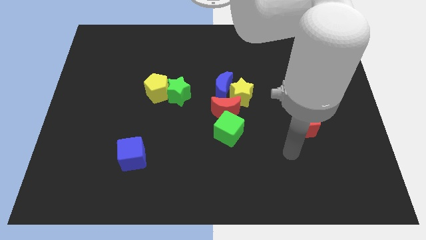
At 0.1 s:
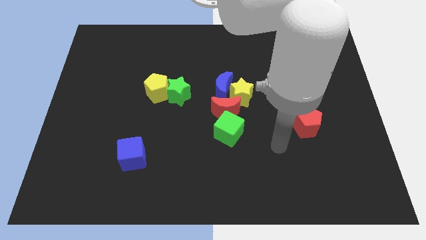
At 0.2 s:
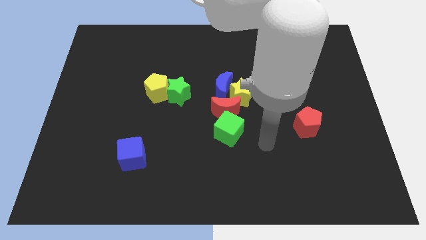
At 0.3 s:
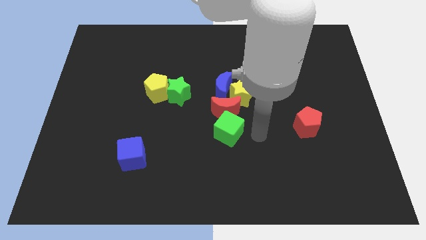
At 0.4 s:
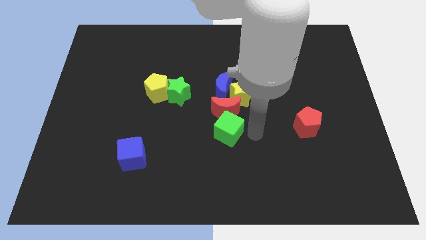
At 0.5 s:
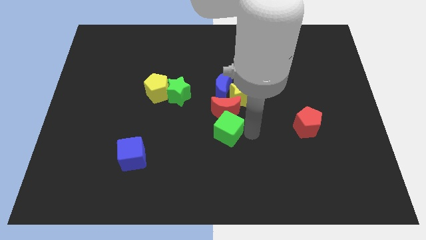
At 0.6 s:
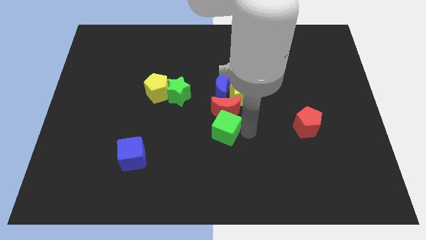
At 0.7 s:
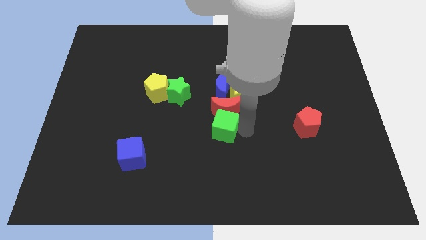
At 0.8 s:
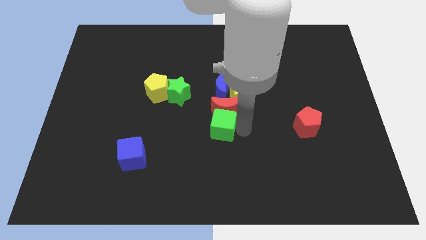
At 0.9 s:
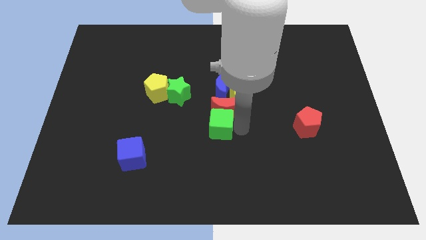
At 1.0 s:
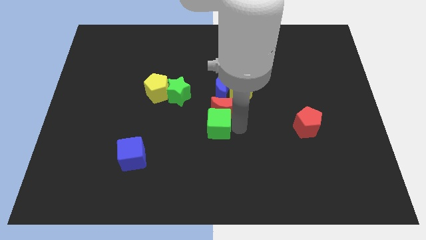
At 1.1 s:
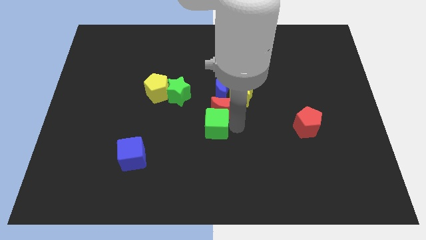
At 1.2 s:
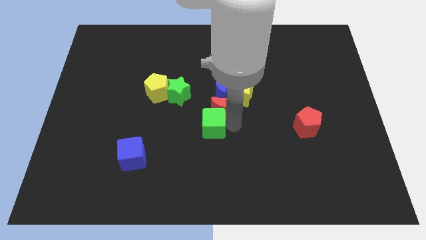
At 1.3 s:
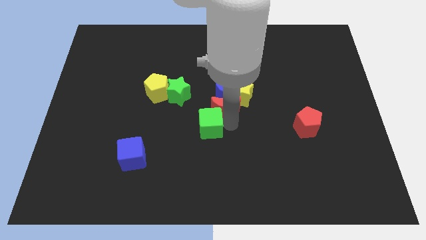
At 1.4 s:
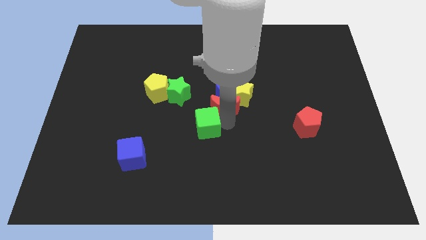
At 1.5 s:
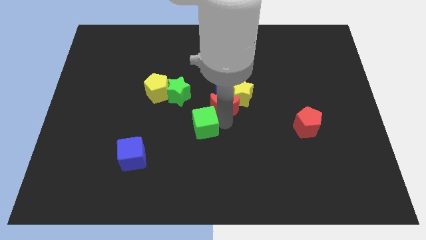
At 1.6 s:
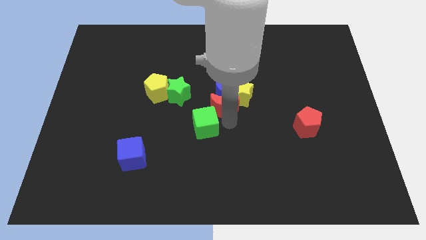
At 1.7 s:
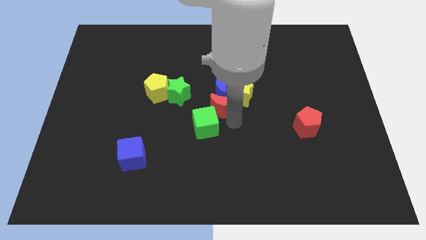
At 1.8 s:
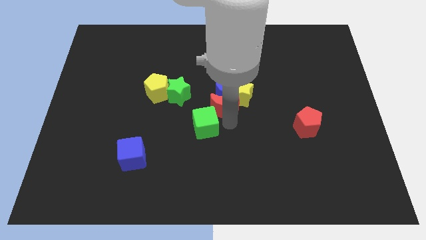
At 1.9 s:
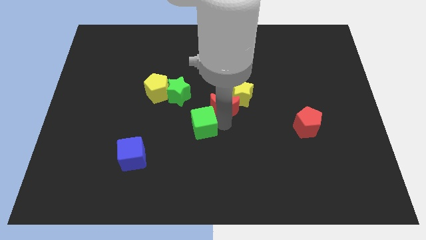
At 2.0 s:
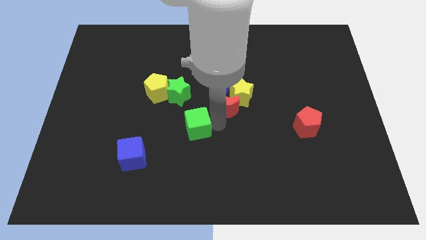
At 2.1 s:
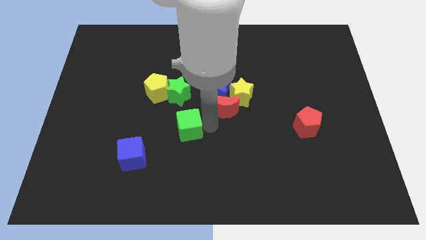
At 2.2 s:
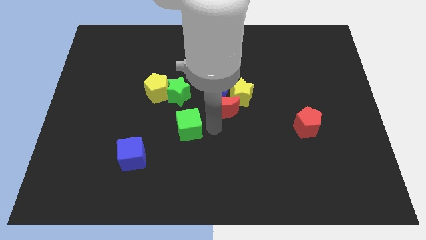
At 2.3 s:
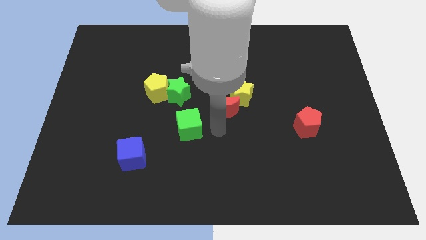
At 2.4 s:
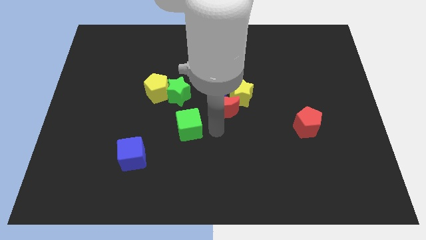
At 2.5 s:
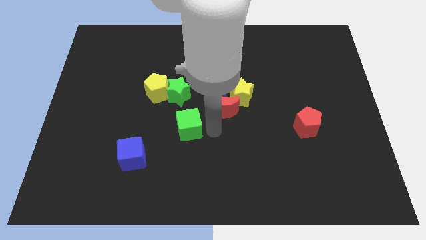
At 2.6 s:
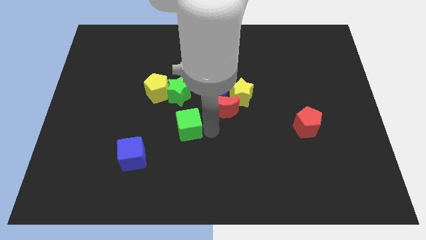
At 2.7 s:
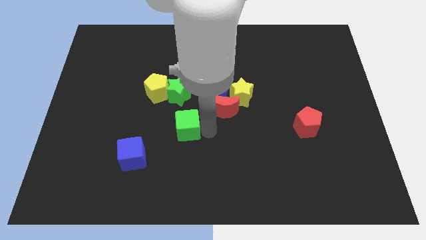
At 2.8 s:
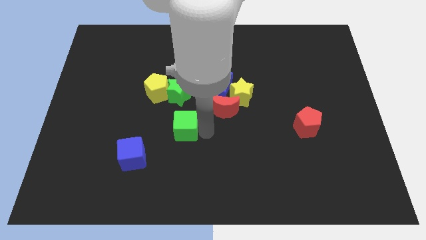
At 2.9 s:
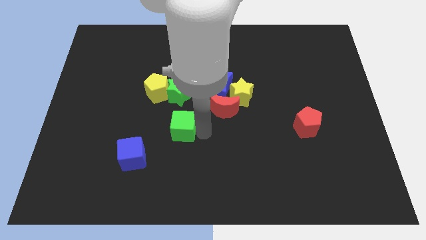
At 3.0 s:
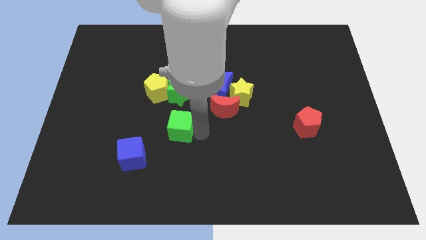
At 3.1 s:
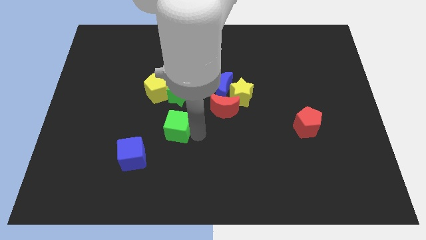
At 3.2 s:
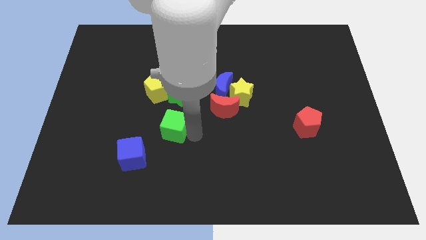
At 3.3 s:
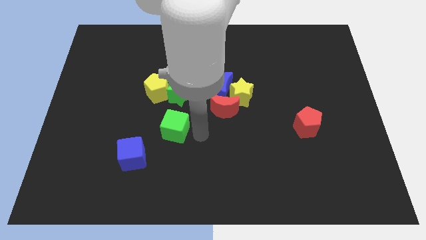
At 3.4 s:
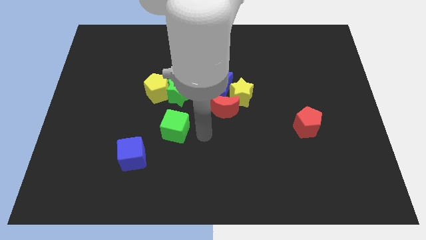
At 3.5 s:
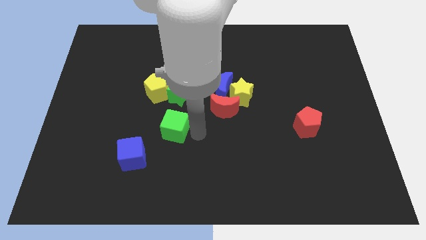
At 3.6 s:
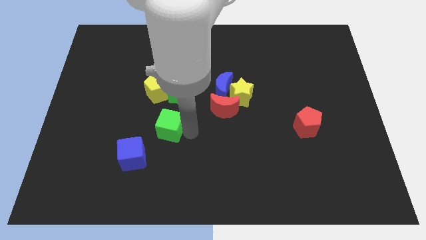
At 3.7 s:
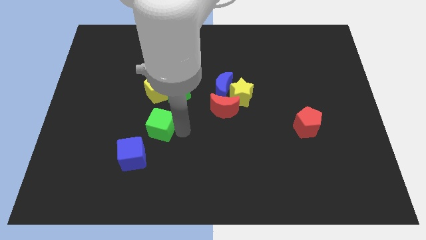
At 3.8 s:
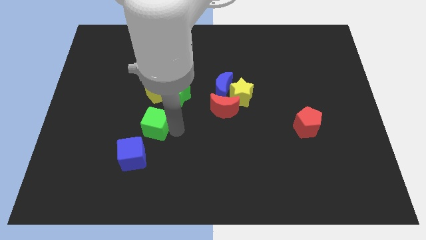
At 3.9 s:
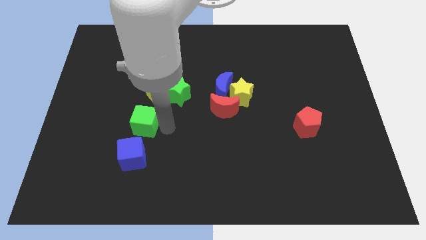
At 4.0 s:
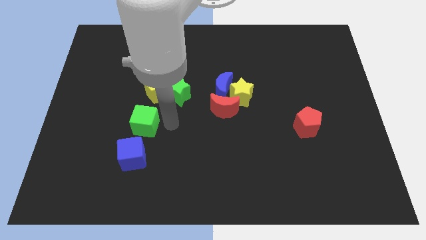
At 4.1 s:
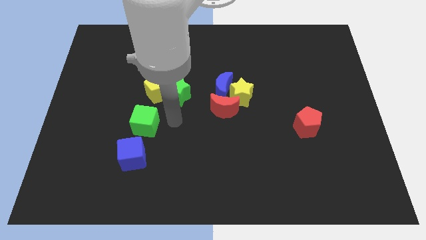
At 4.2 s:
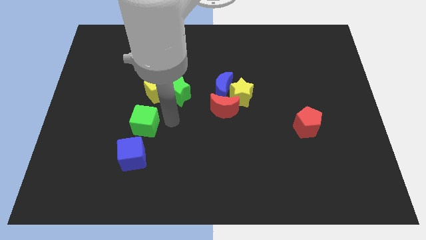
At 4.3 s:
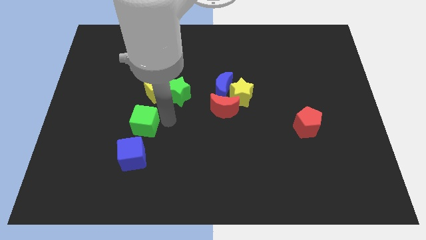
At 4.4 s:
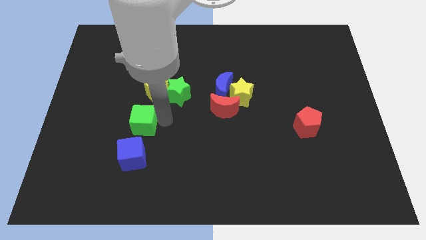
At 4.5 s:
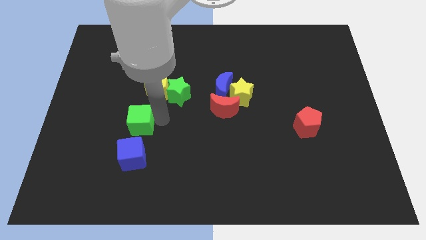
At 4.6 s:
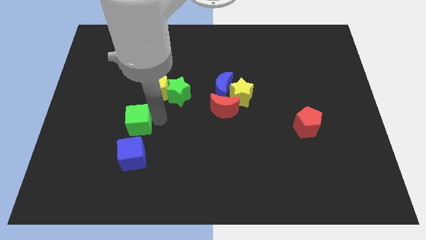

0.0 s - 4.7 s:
slide the green cube to the left

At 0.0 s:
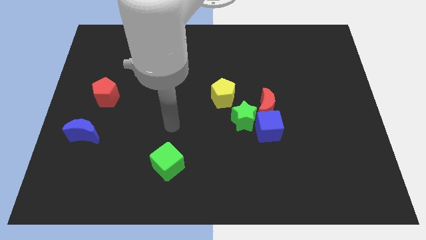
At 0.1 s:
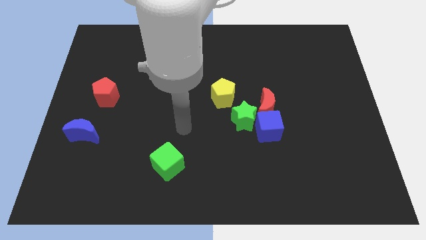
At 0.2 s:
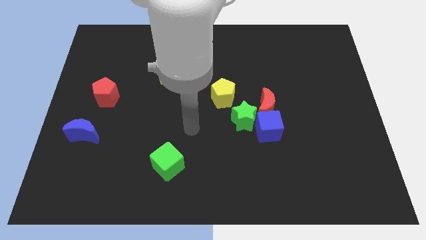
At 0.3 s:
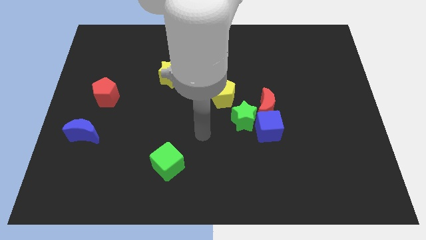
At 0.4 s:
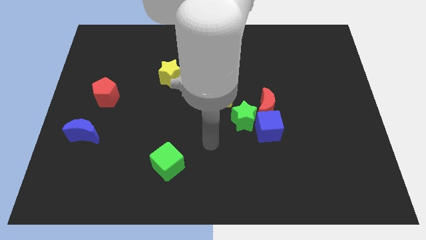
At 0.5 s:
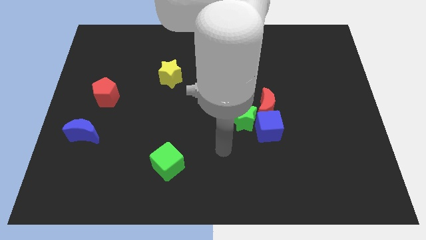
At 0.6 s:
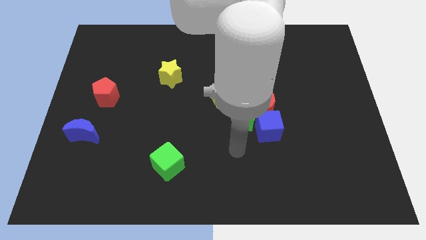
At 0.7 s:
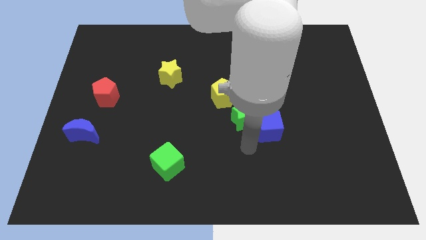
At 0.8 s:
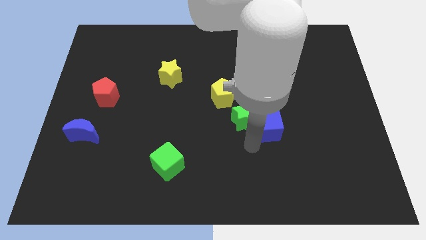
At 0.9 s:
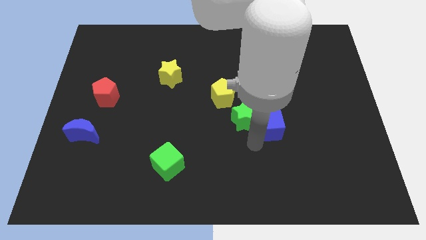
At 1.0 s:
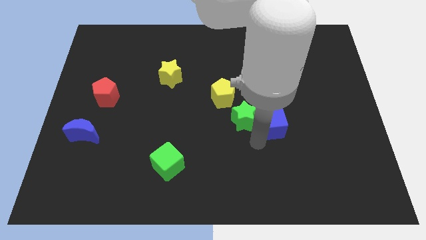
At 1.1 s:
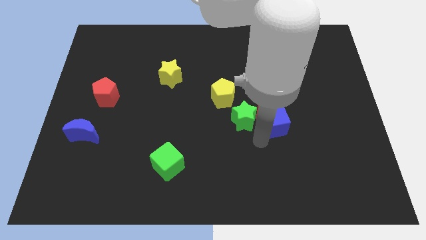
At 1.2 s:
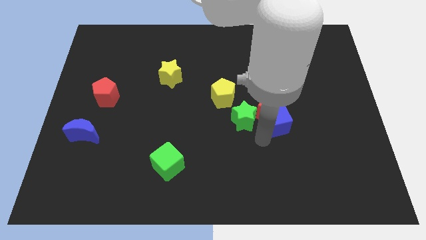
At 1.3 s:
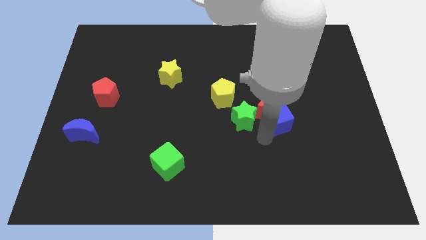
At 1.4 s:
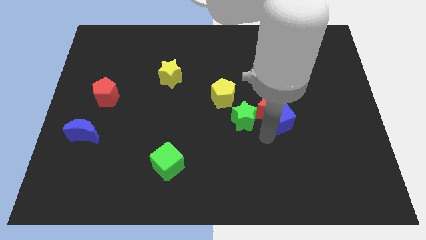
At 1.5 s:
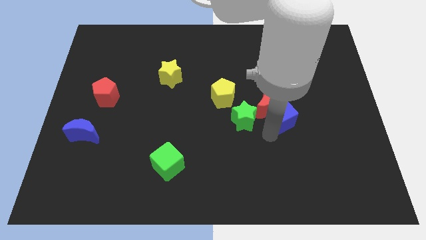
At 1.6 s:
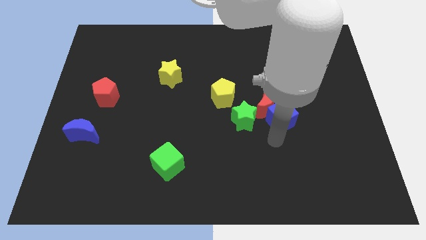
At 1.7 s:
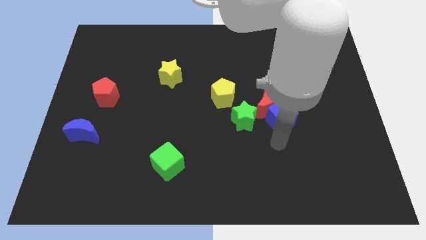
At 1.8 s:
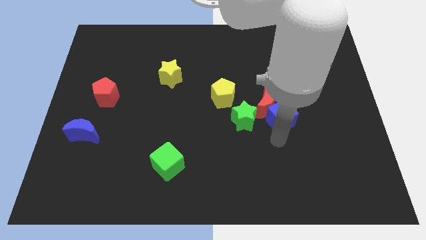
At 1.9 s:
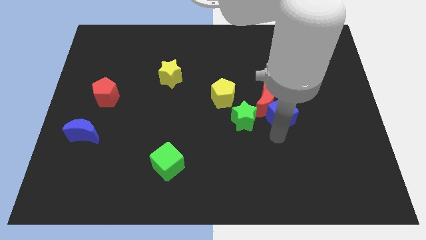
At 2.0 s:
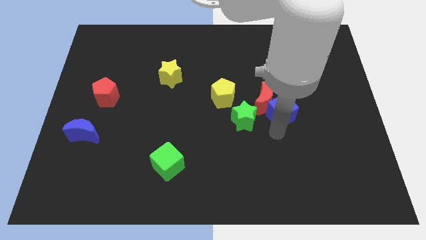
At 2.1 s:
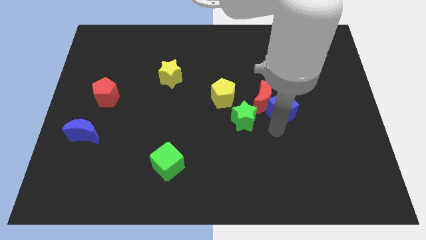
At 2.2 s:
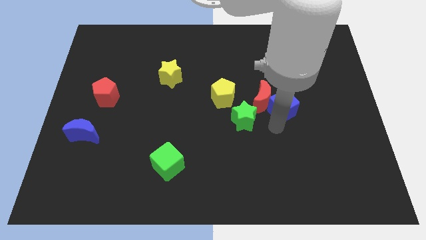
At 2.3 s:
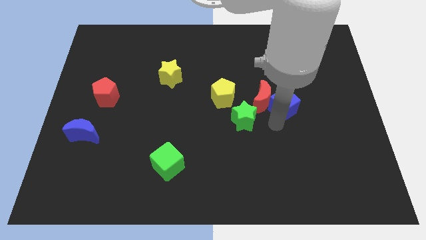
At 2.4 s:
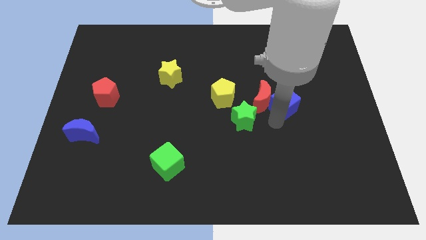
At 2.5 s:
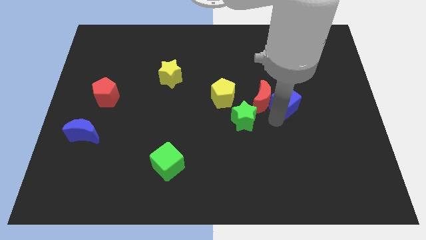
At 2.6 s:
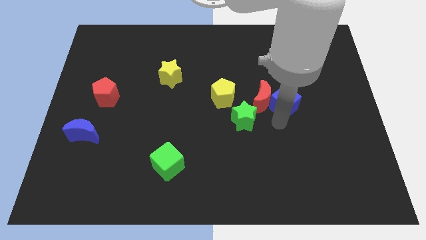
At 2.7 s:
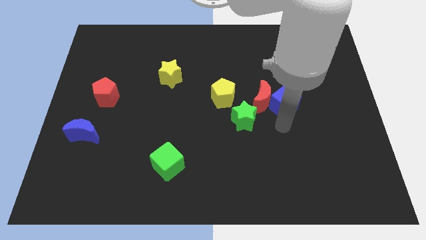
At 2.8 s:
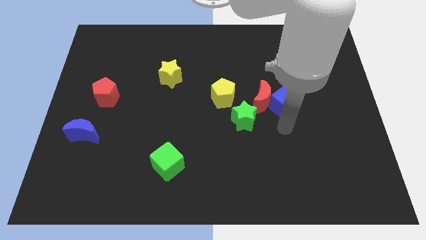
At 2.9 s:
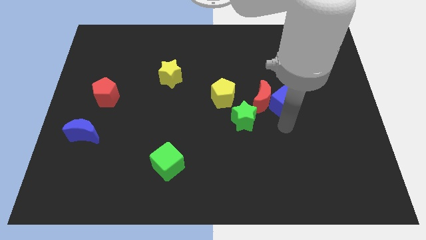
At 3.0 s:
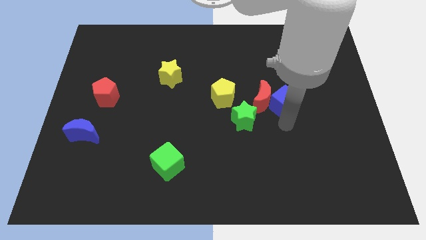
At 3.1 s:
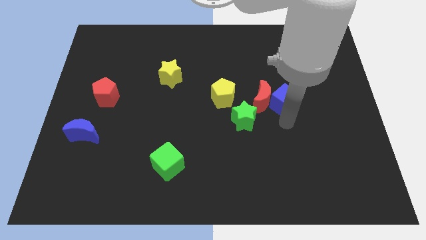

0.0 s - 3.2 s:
slide the blue cube slightly up

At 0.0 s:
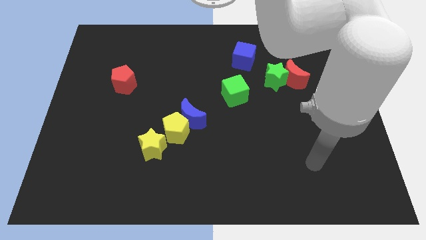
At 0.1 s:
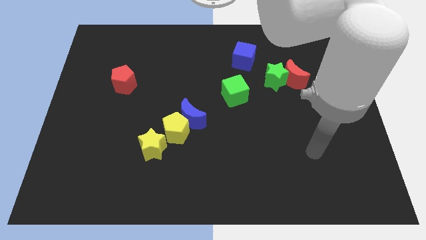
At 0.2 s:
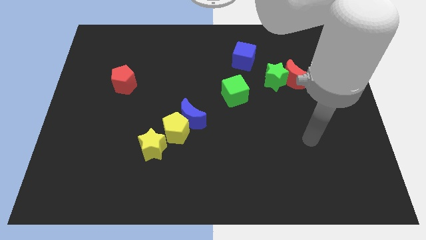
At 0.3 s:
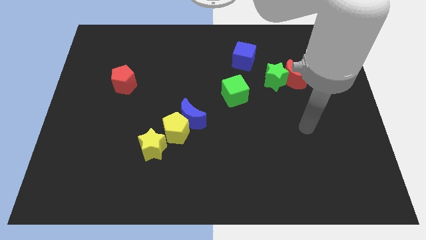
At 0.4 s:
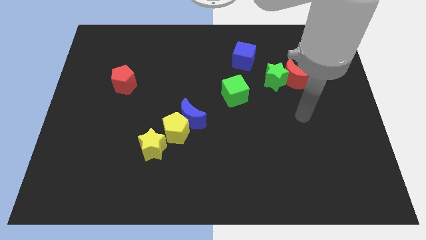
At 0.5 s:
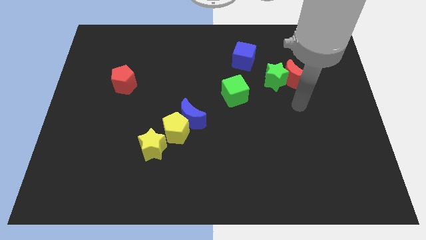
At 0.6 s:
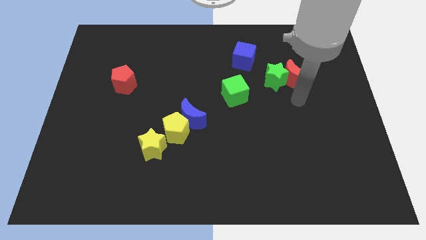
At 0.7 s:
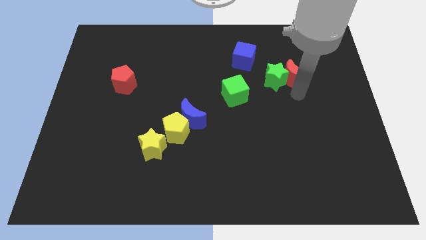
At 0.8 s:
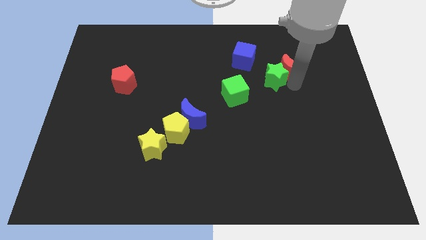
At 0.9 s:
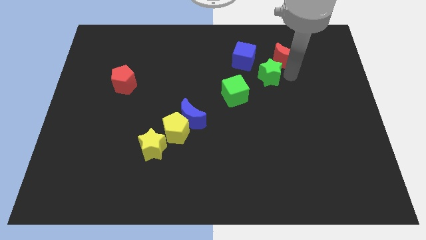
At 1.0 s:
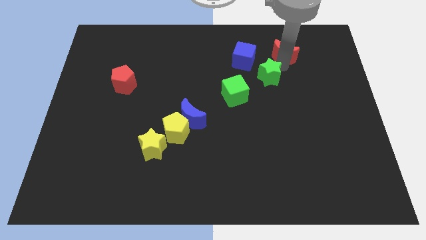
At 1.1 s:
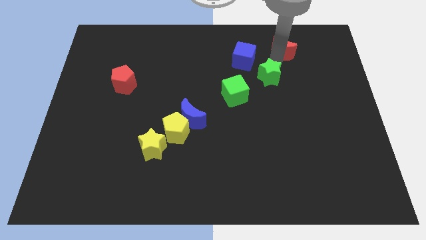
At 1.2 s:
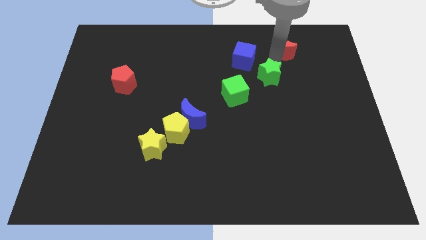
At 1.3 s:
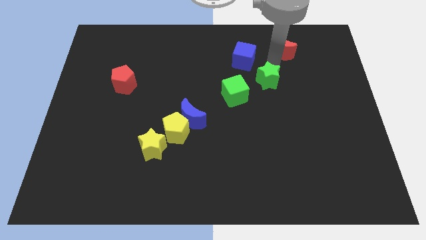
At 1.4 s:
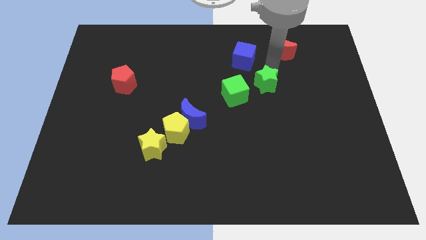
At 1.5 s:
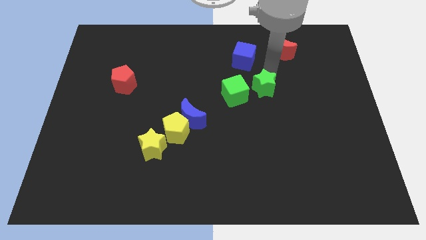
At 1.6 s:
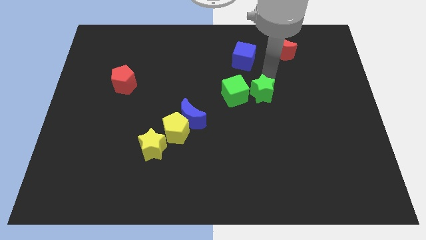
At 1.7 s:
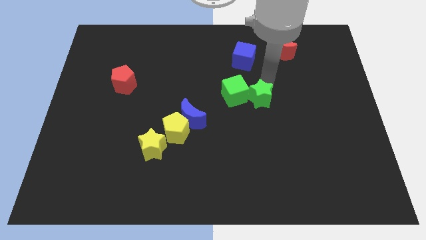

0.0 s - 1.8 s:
slightly move the green star down and then left
